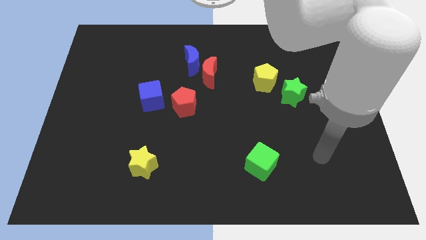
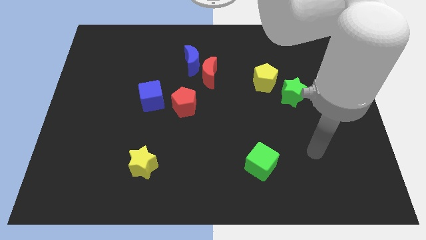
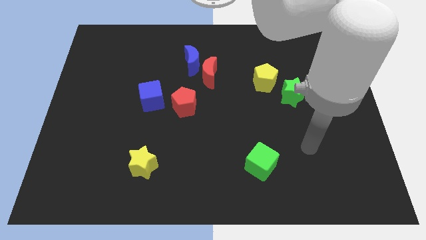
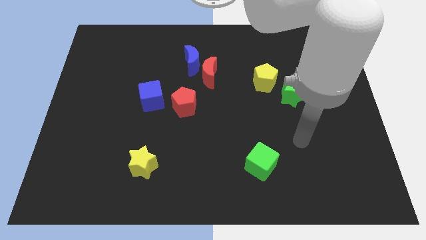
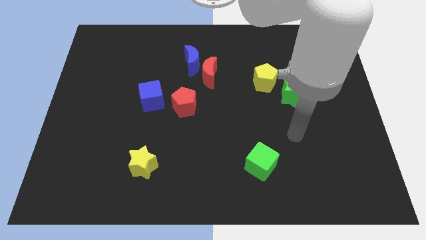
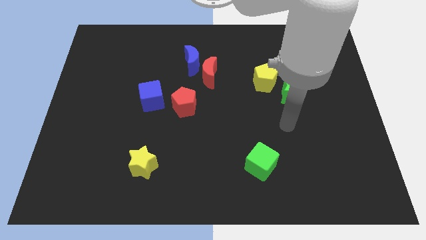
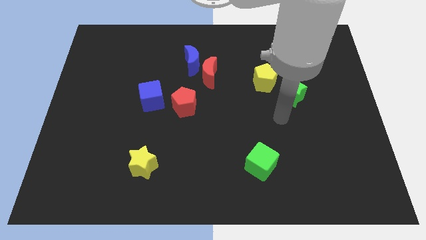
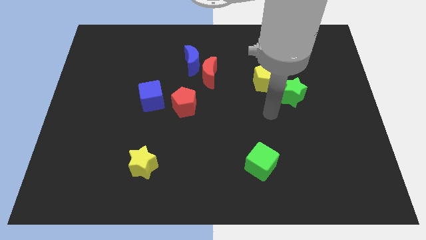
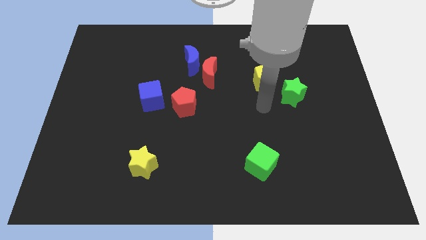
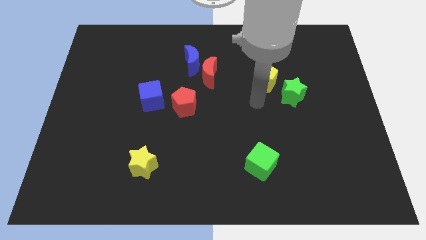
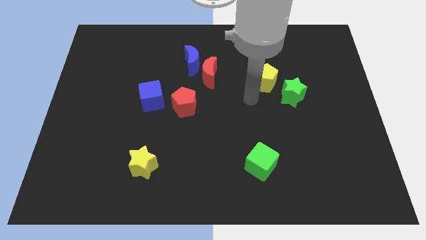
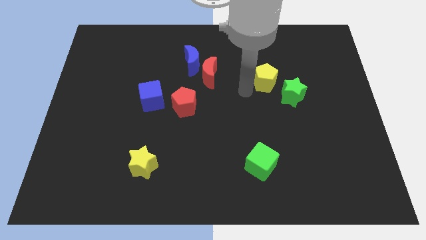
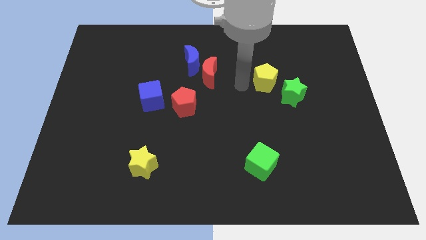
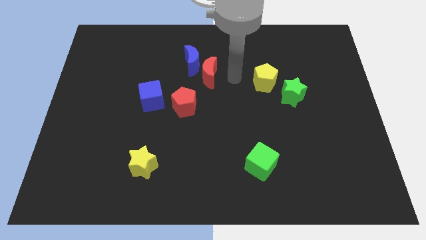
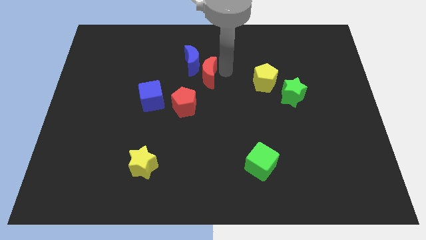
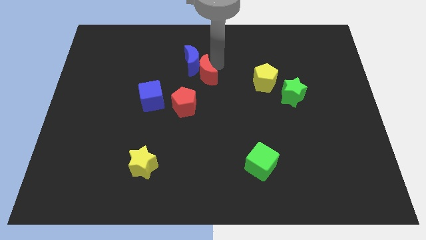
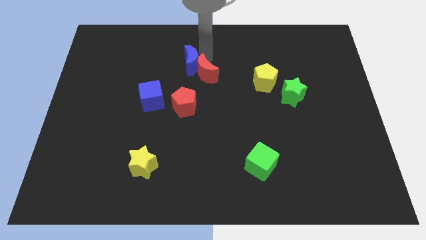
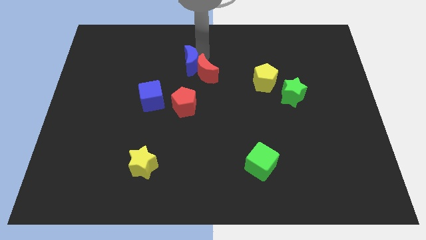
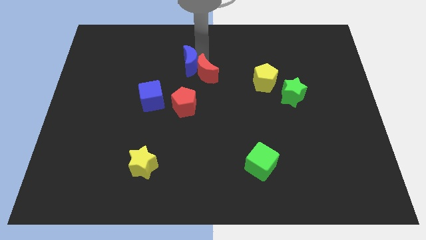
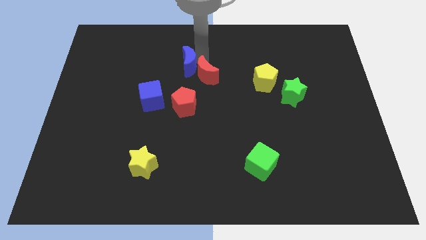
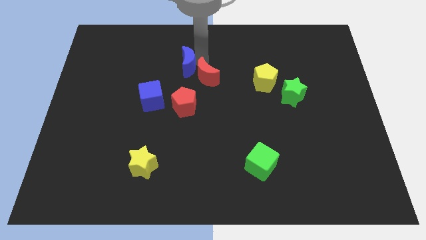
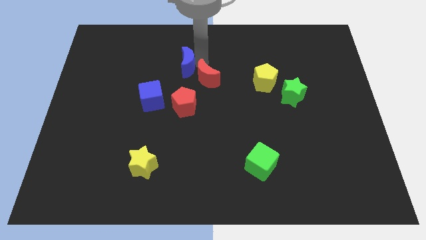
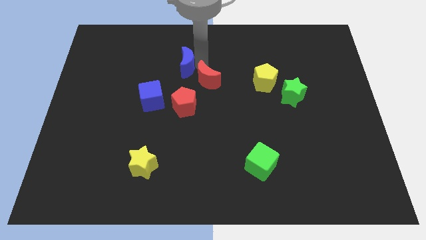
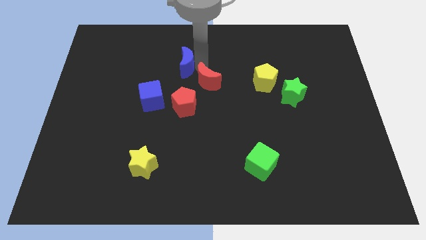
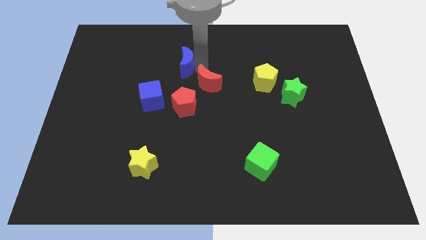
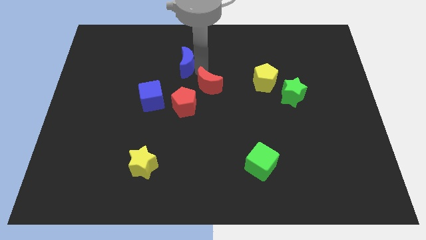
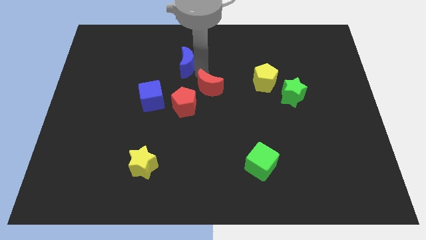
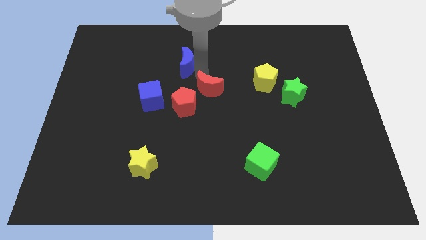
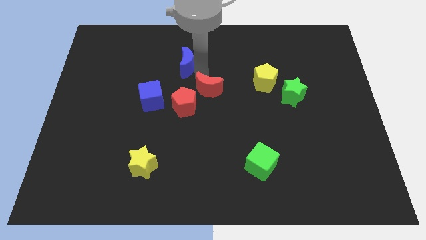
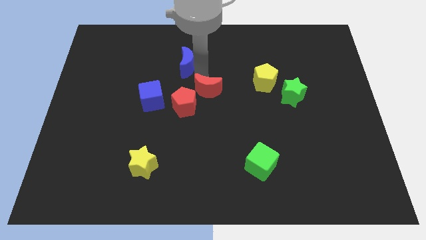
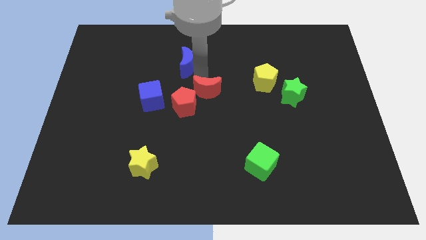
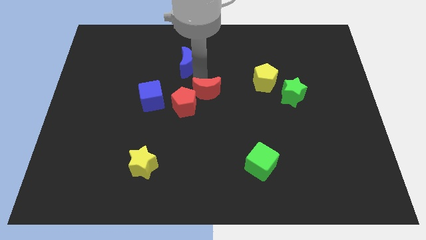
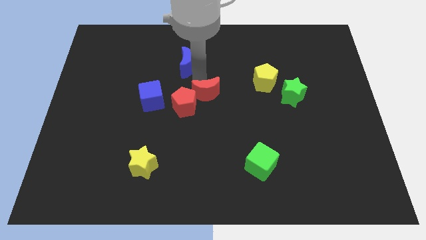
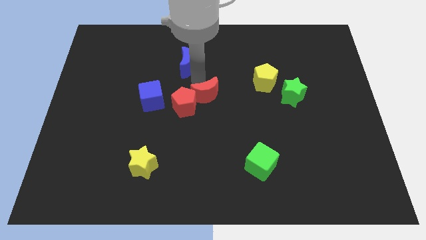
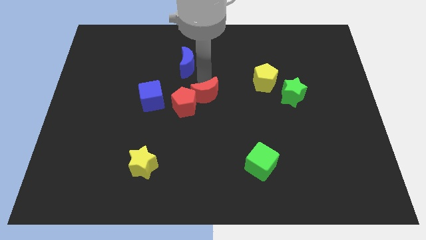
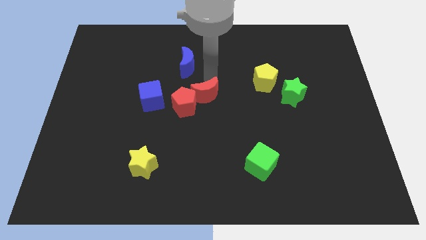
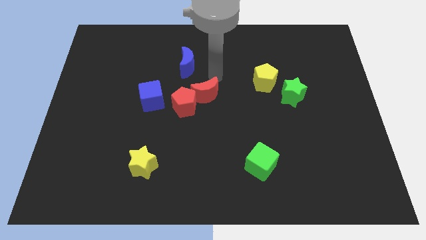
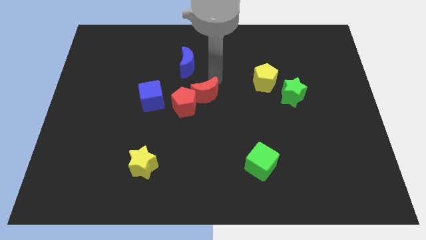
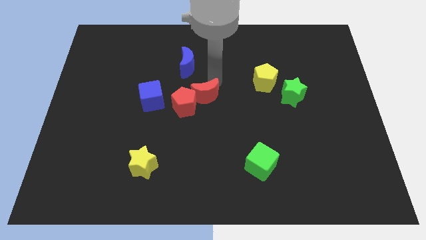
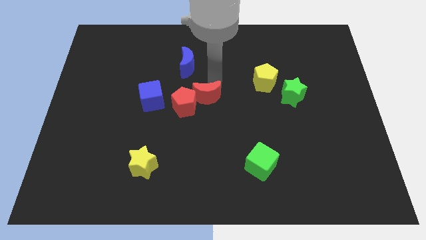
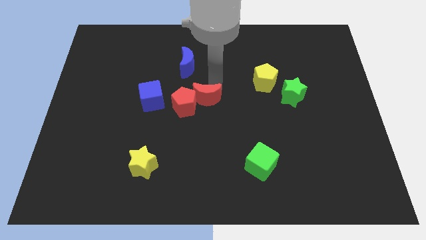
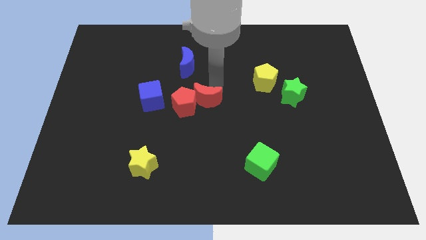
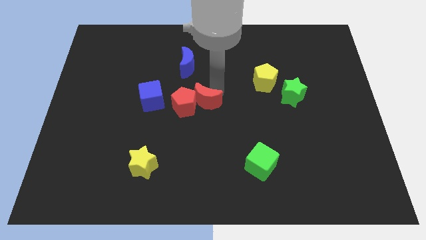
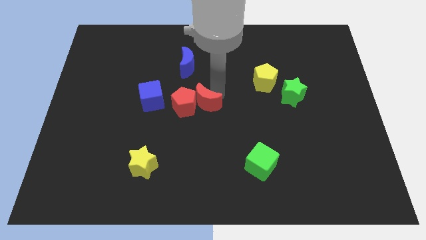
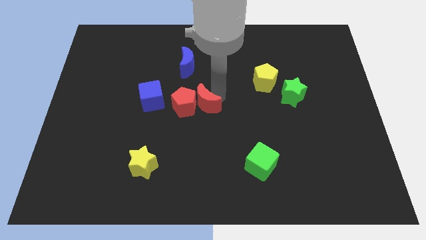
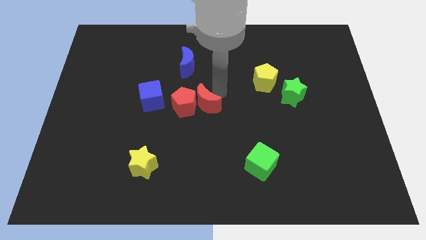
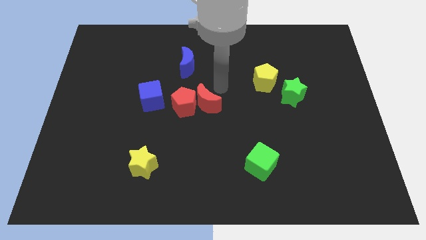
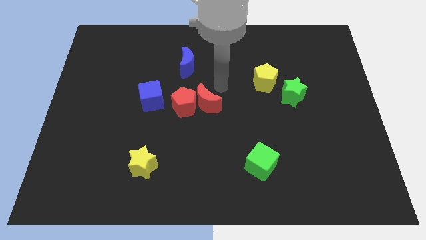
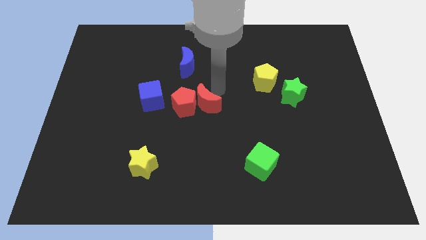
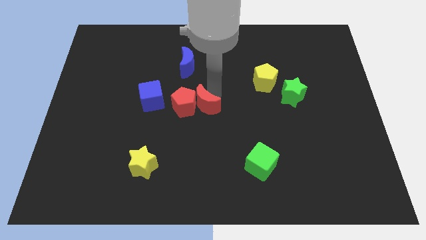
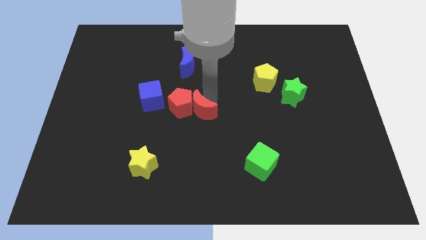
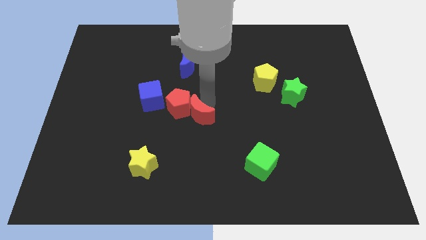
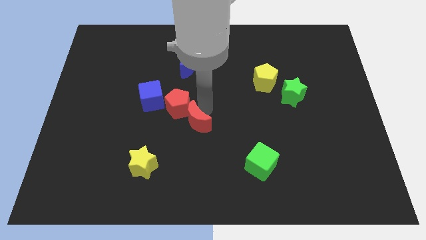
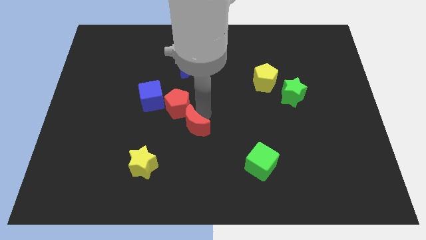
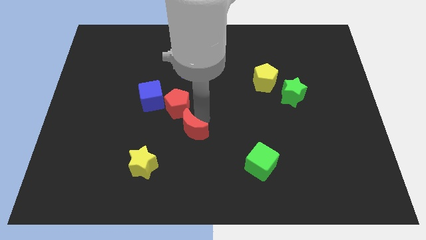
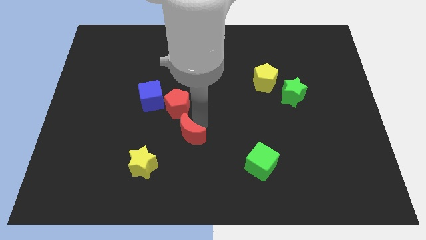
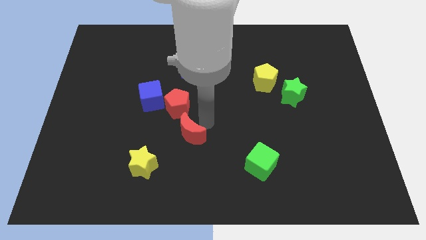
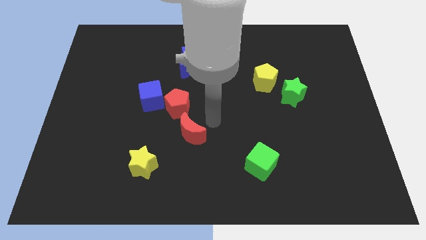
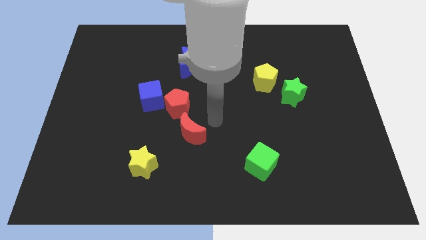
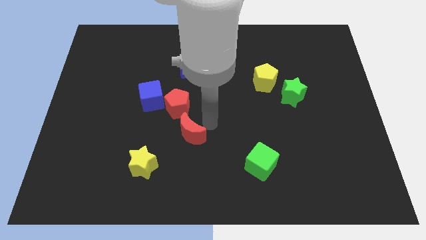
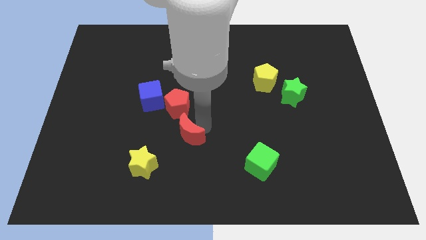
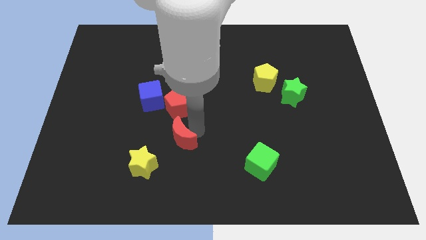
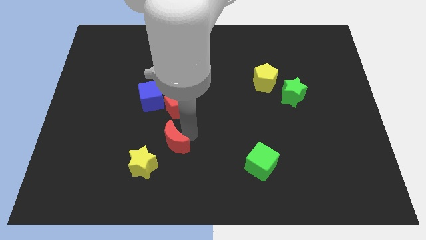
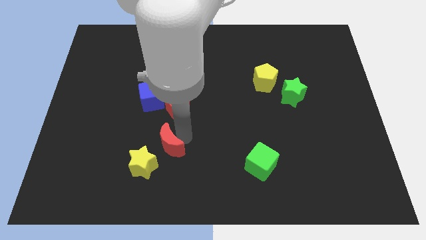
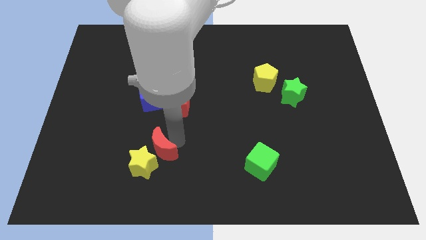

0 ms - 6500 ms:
put the red moon next to the yellow star

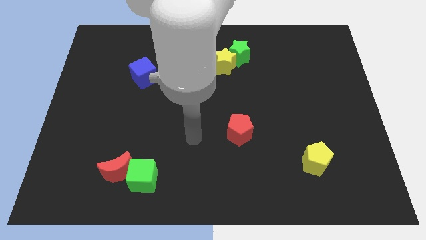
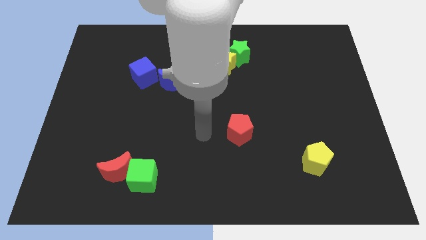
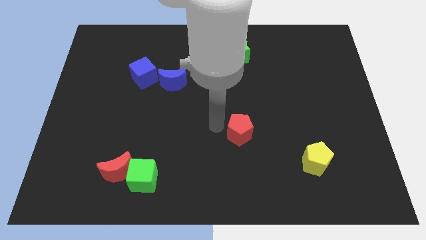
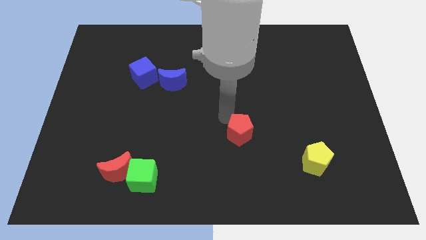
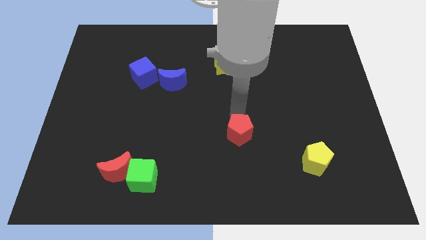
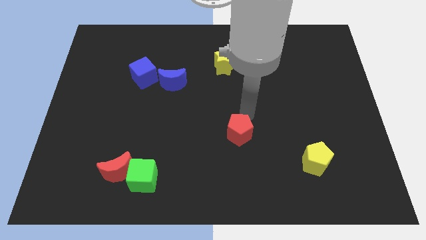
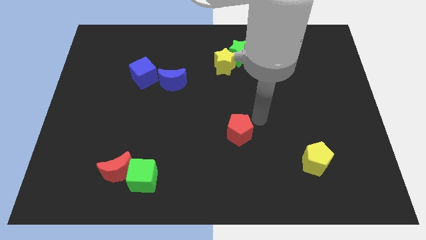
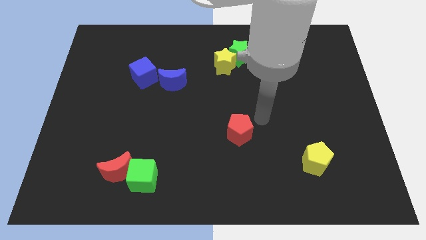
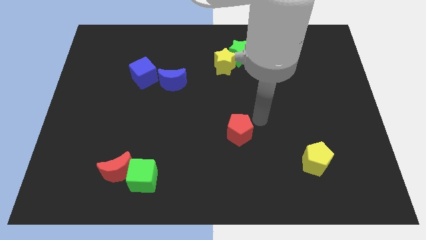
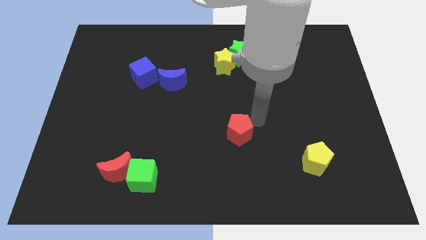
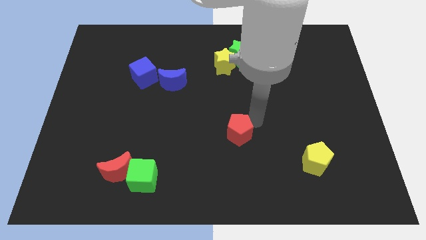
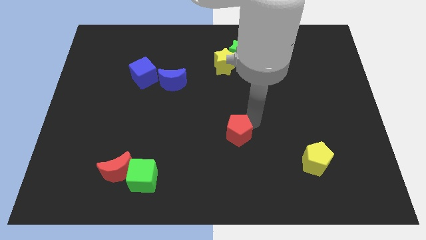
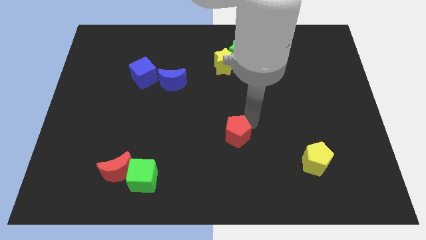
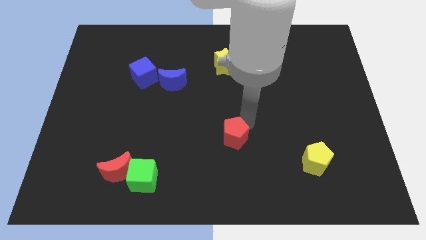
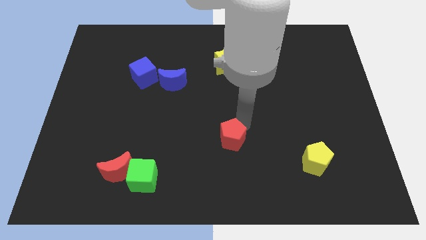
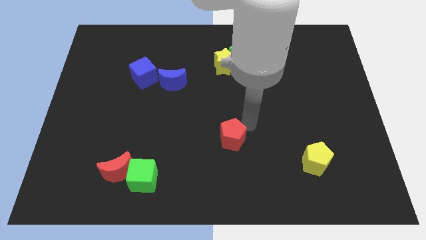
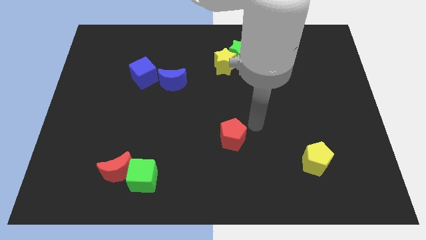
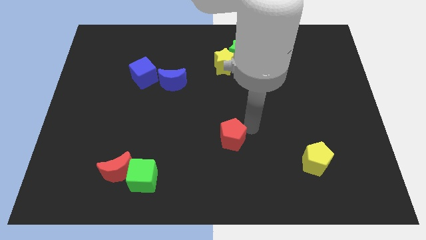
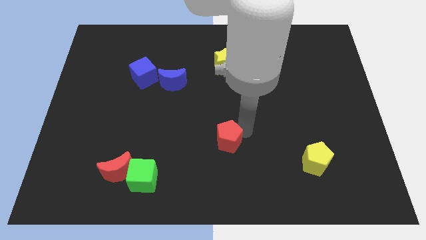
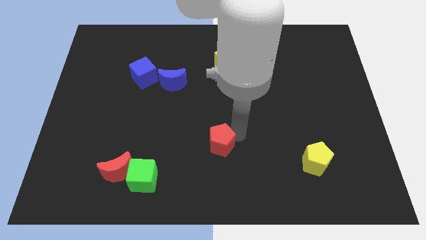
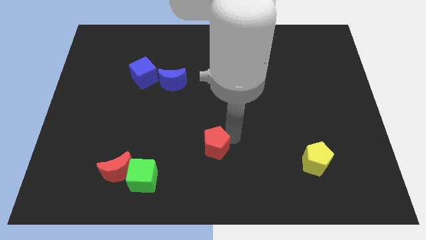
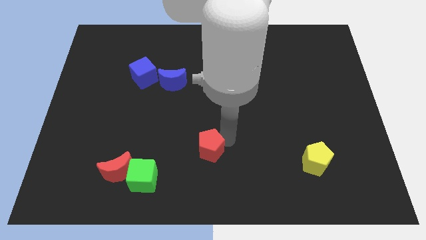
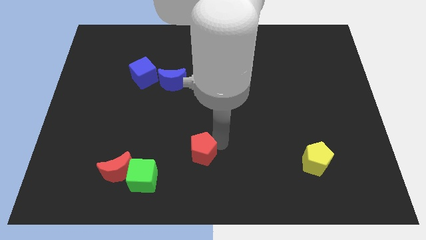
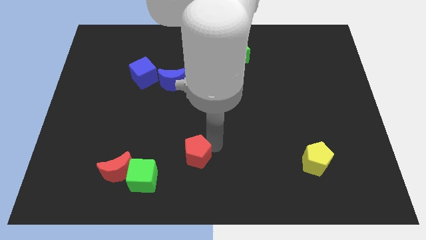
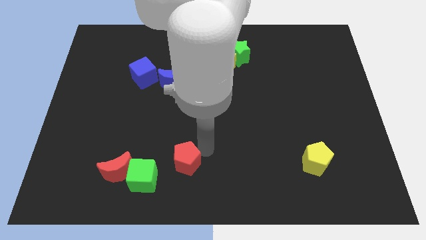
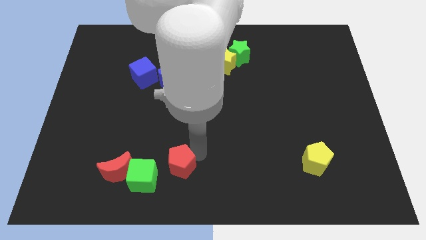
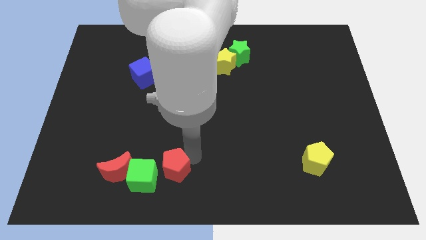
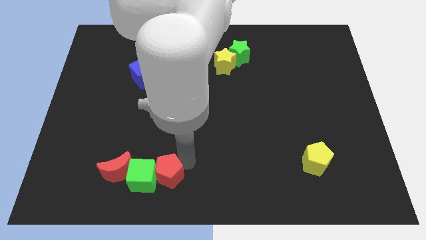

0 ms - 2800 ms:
push the red pentagon next to the green cube
